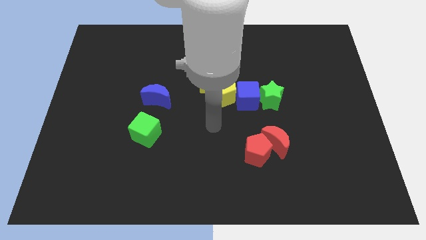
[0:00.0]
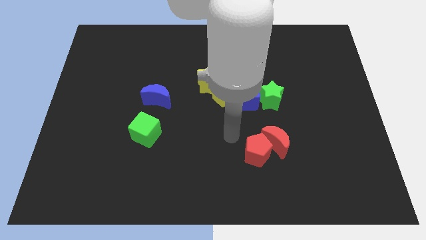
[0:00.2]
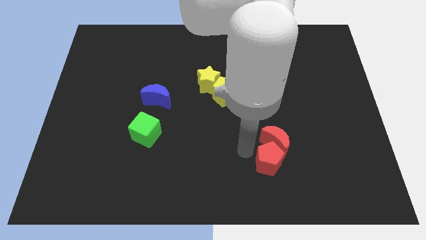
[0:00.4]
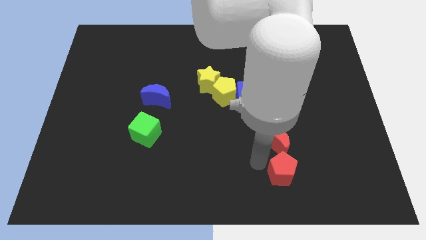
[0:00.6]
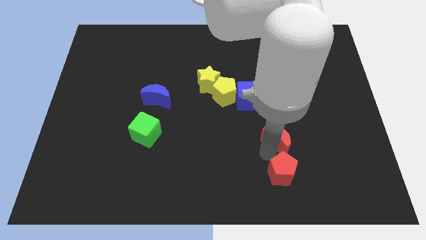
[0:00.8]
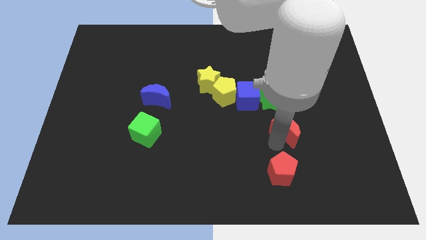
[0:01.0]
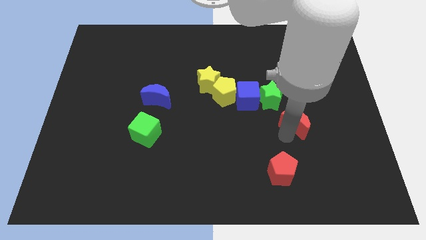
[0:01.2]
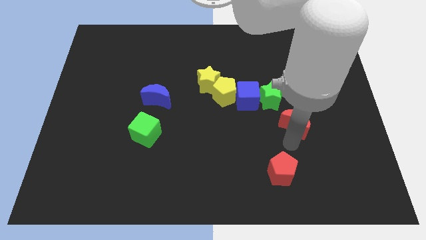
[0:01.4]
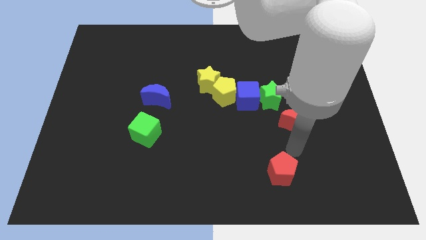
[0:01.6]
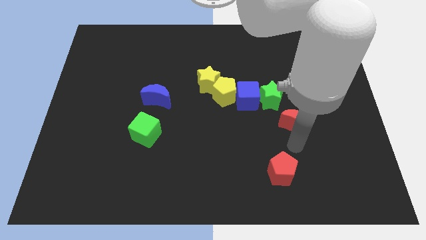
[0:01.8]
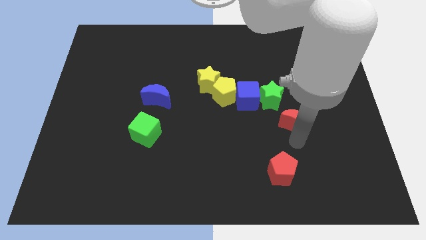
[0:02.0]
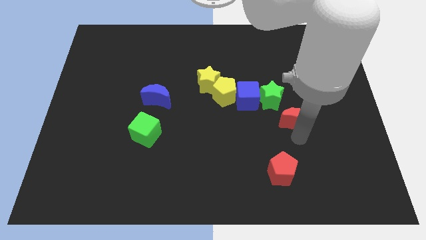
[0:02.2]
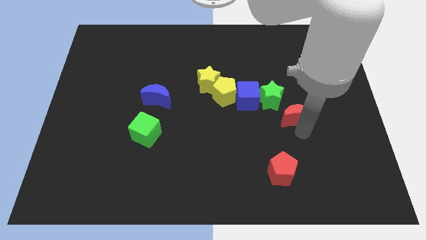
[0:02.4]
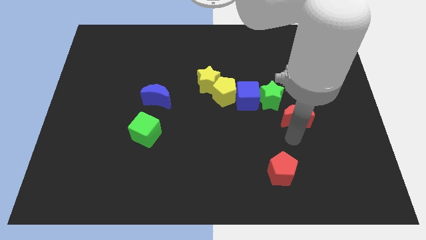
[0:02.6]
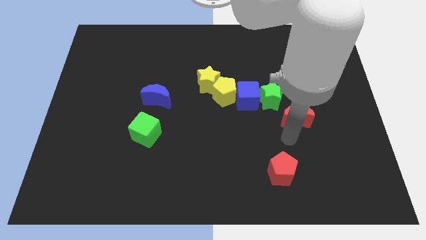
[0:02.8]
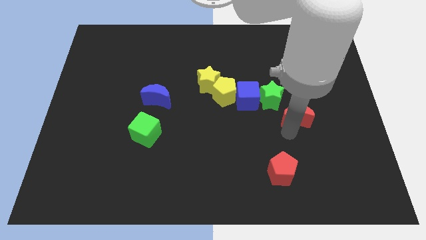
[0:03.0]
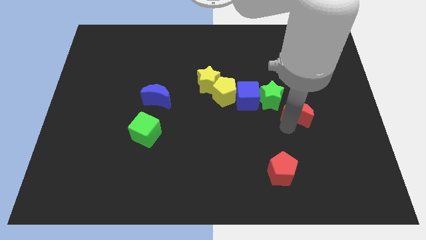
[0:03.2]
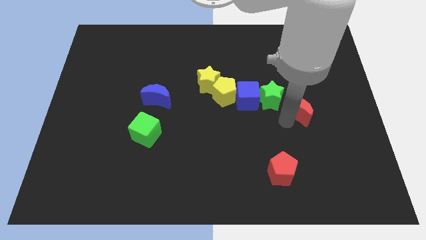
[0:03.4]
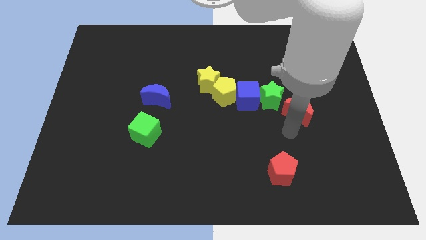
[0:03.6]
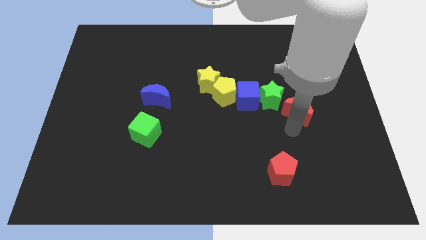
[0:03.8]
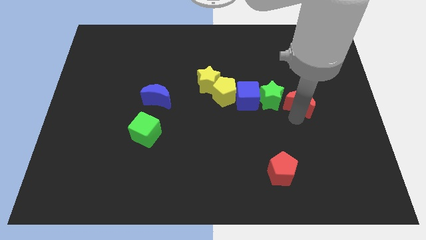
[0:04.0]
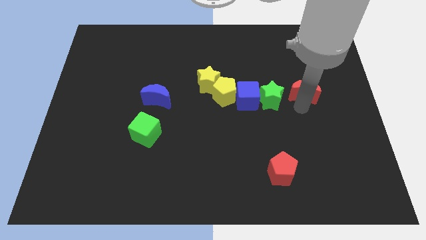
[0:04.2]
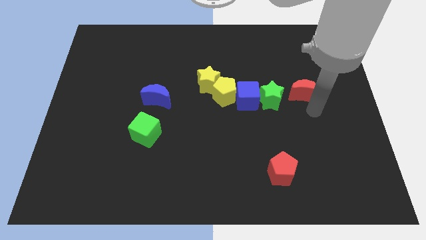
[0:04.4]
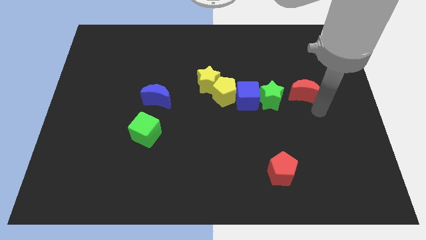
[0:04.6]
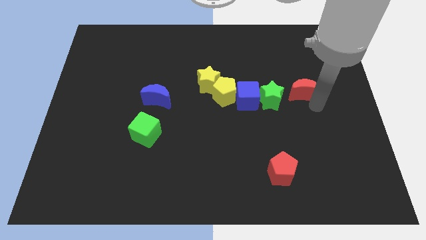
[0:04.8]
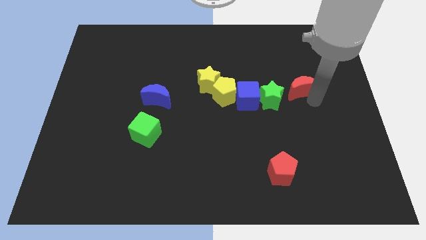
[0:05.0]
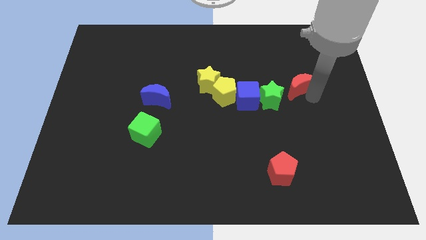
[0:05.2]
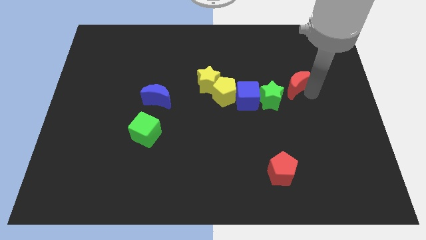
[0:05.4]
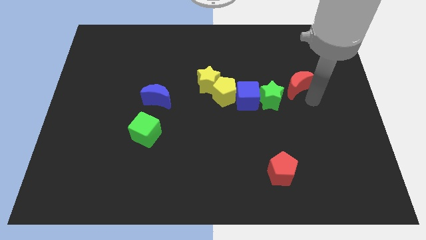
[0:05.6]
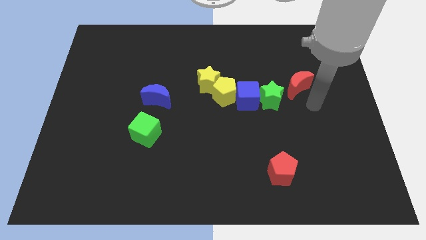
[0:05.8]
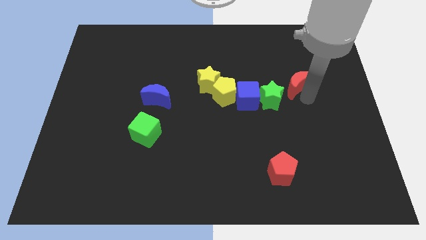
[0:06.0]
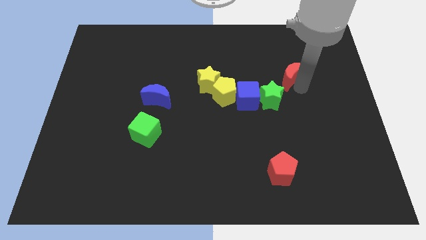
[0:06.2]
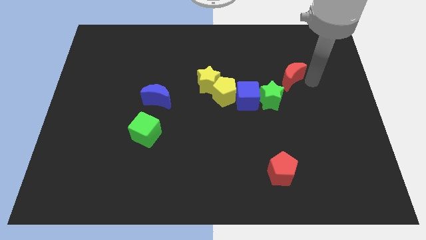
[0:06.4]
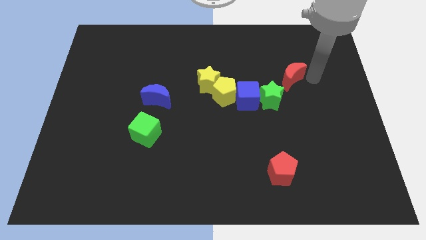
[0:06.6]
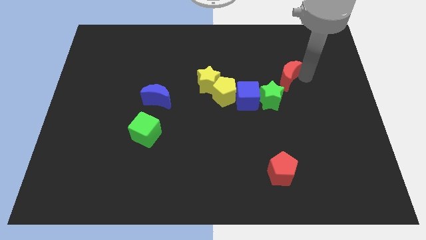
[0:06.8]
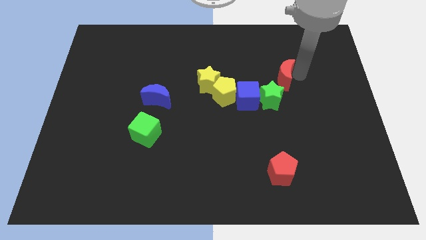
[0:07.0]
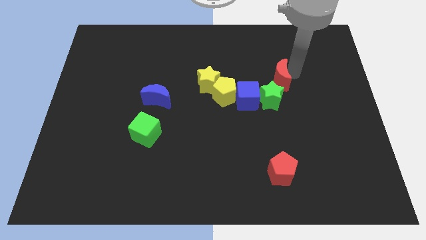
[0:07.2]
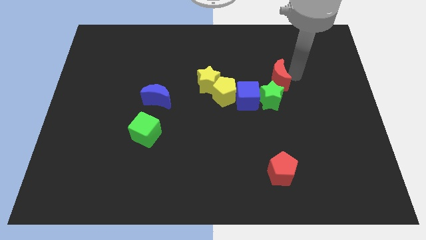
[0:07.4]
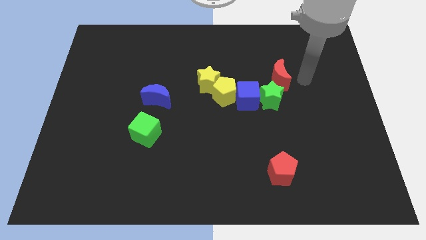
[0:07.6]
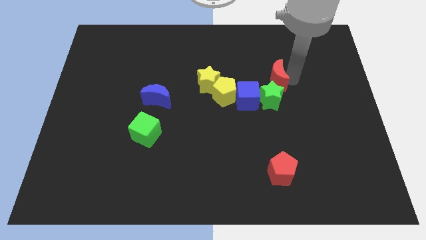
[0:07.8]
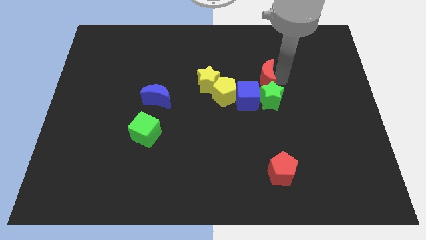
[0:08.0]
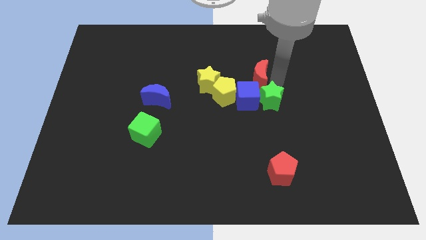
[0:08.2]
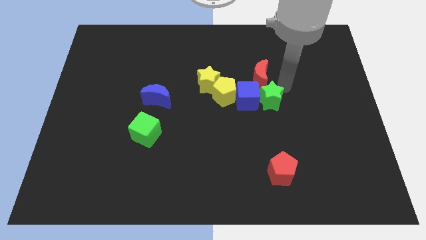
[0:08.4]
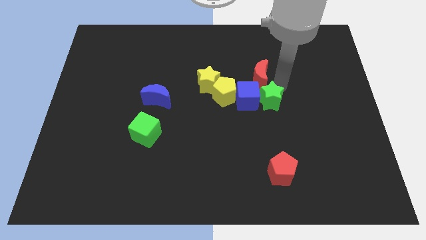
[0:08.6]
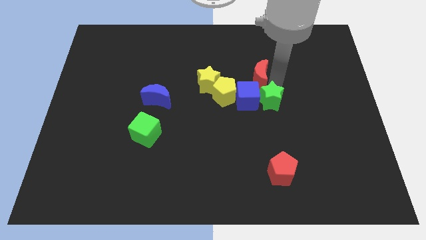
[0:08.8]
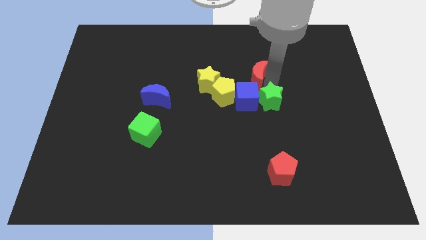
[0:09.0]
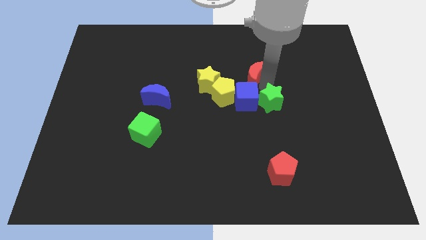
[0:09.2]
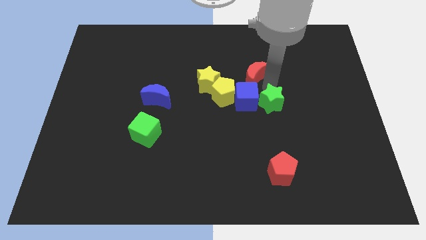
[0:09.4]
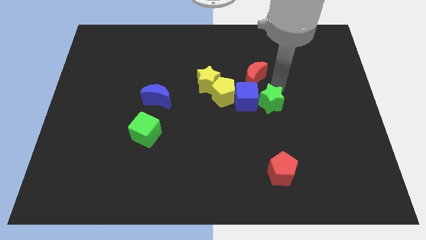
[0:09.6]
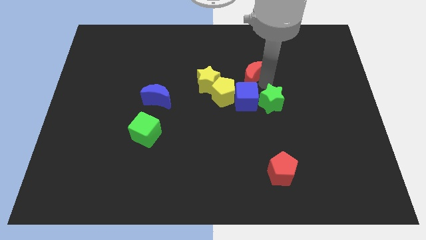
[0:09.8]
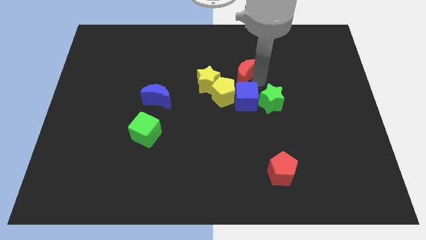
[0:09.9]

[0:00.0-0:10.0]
move the red moon to the top right of the yellow star

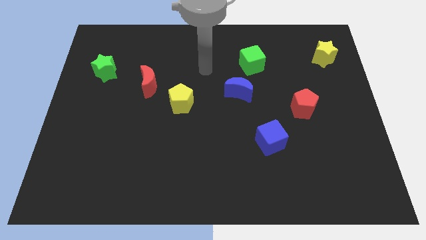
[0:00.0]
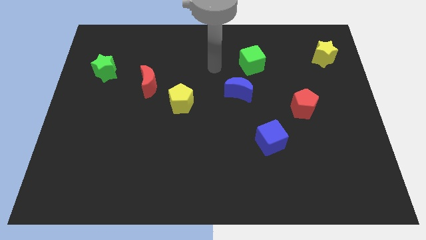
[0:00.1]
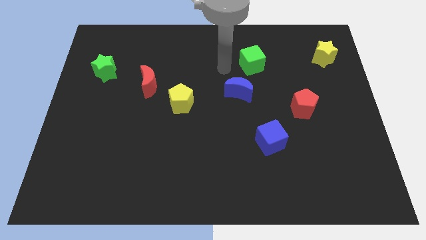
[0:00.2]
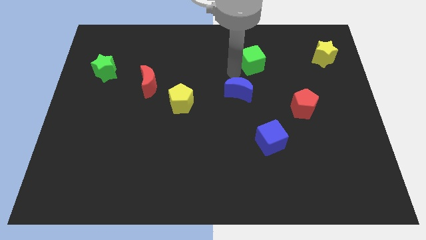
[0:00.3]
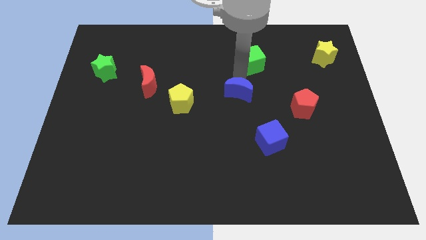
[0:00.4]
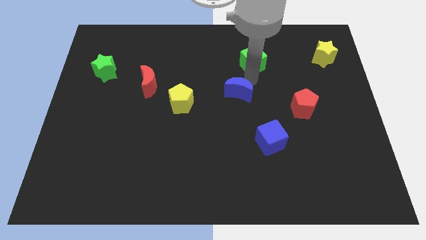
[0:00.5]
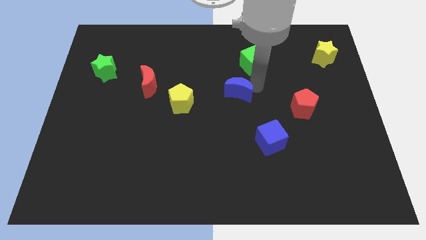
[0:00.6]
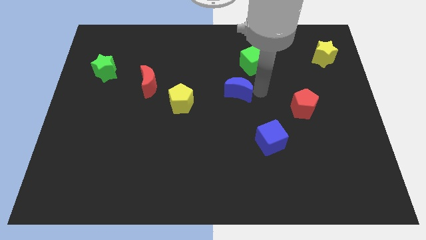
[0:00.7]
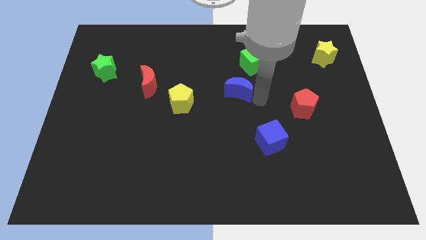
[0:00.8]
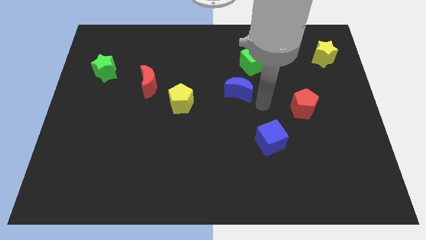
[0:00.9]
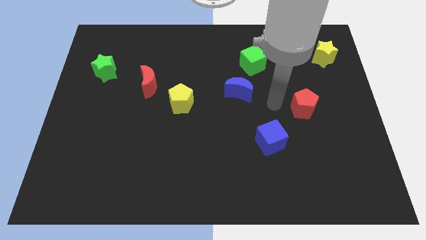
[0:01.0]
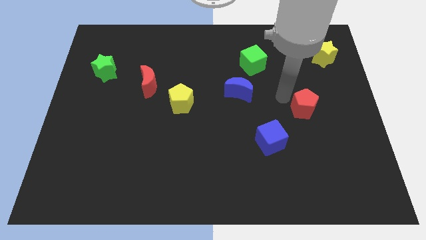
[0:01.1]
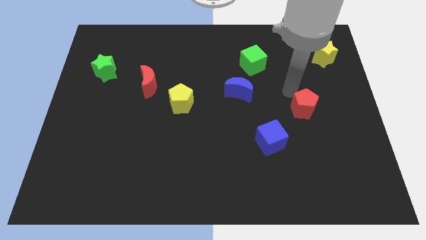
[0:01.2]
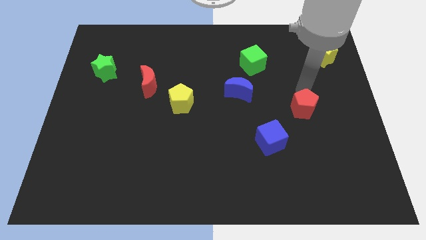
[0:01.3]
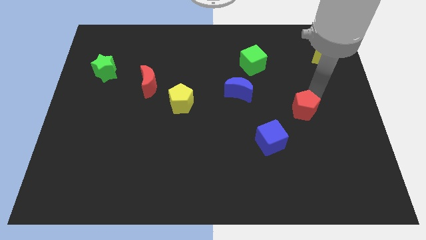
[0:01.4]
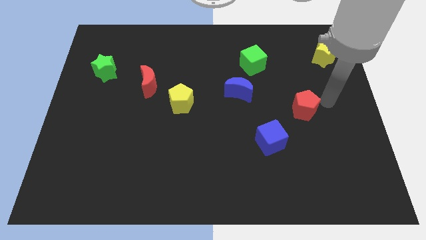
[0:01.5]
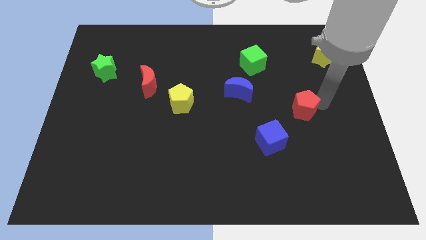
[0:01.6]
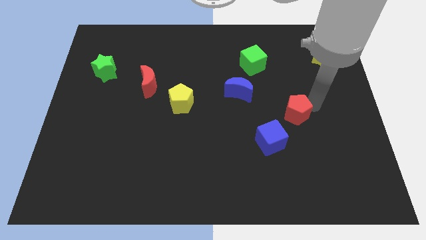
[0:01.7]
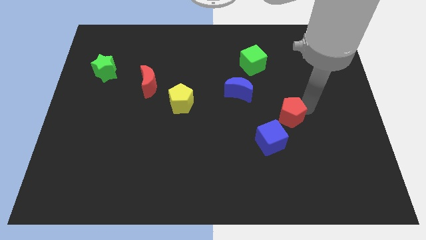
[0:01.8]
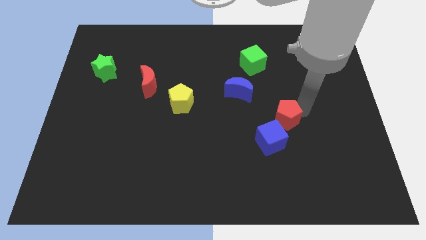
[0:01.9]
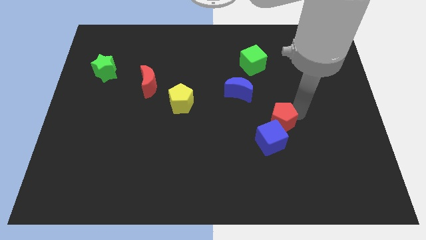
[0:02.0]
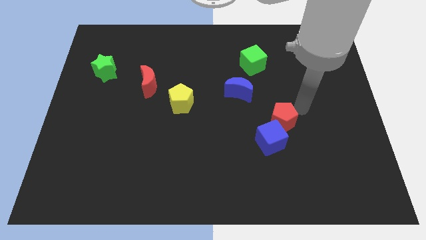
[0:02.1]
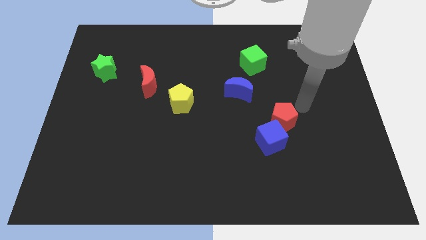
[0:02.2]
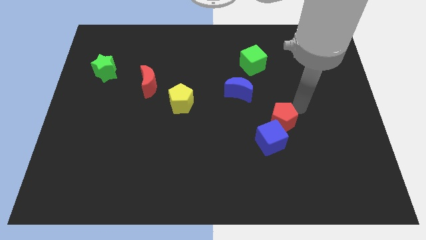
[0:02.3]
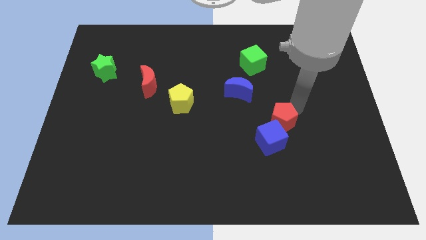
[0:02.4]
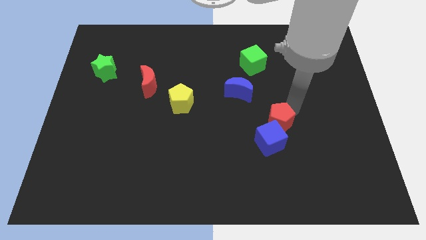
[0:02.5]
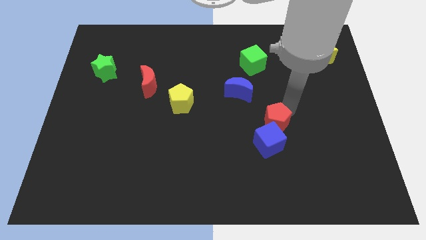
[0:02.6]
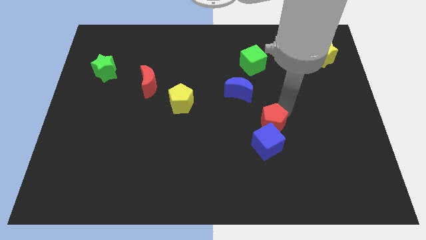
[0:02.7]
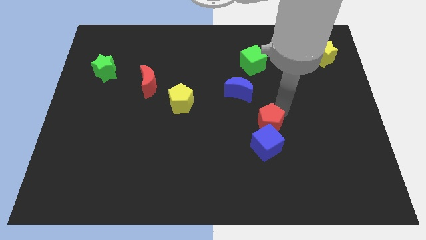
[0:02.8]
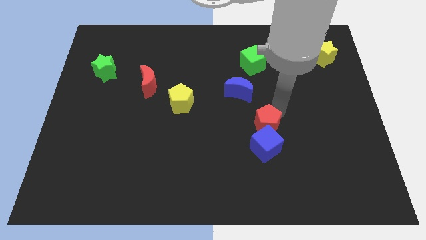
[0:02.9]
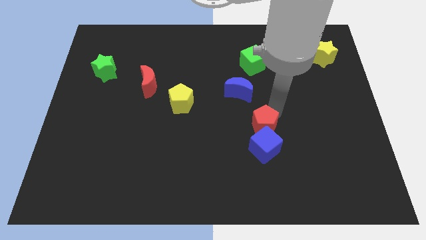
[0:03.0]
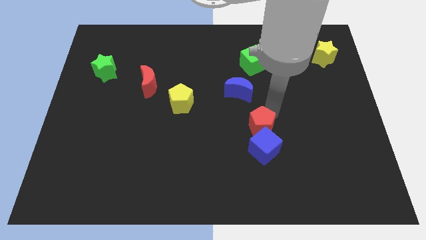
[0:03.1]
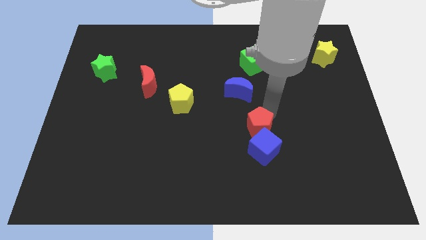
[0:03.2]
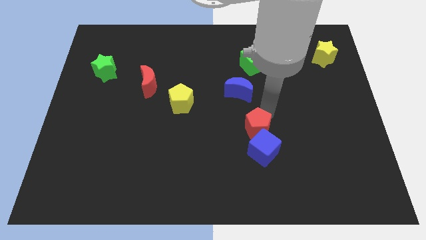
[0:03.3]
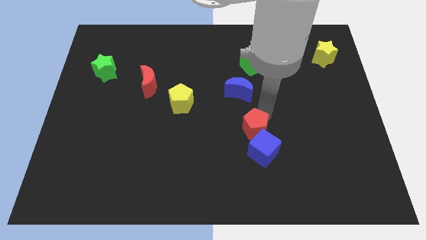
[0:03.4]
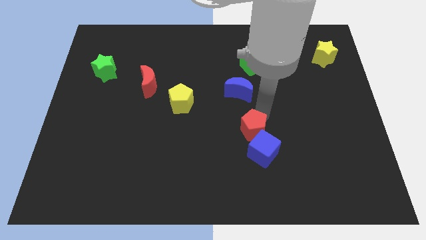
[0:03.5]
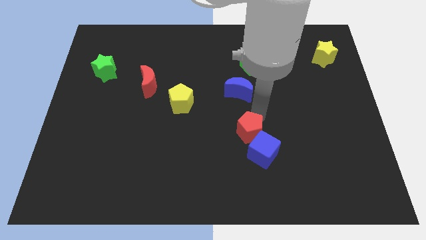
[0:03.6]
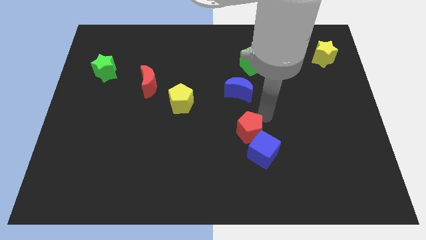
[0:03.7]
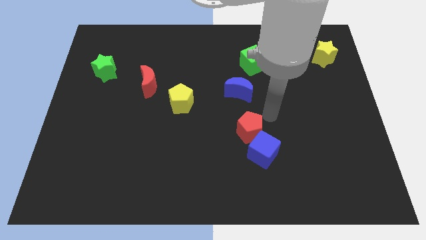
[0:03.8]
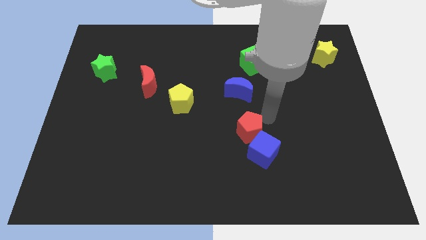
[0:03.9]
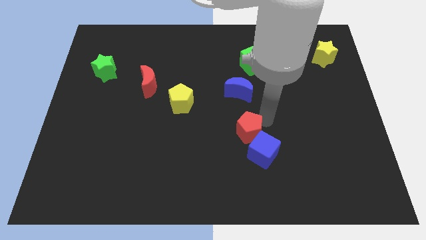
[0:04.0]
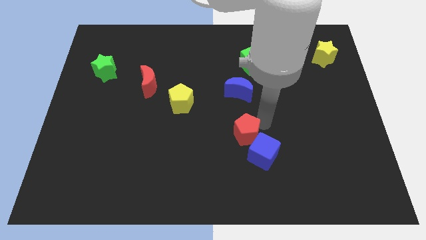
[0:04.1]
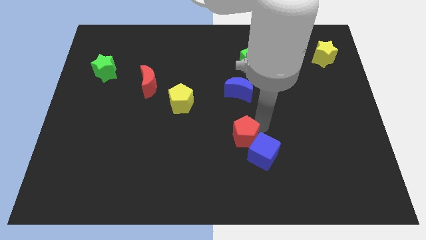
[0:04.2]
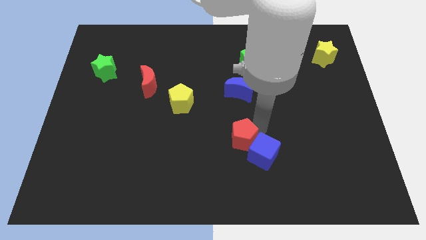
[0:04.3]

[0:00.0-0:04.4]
put the red pentagon to the left of the blue cube
